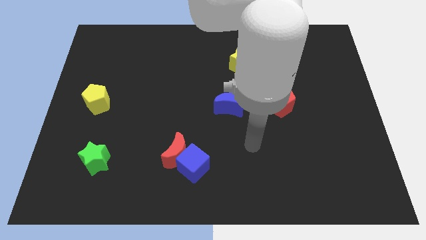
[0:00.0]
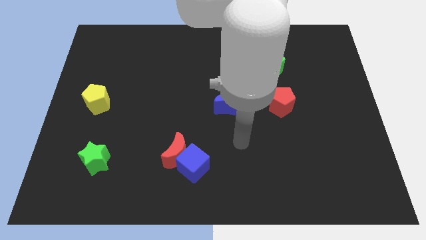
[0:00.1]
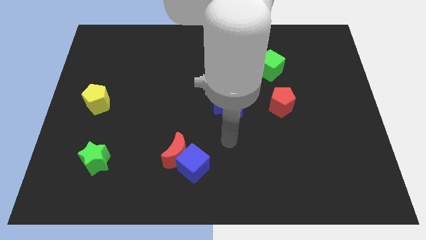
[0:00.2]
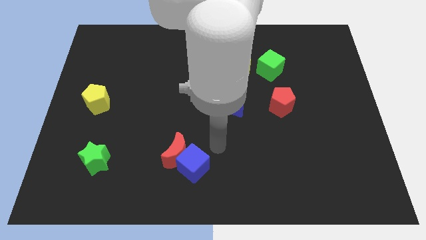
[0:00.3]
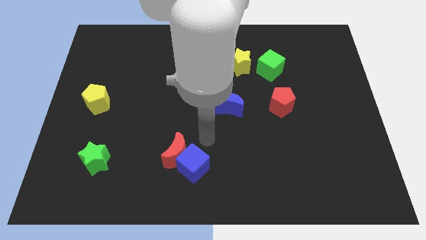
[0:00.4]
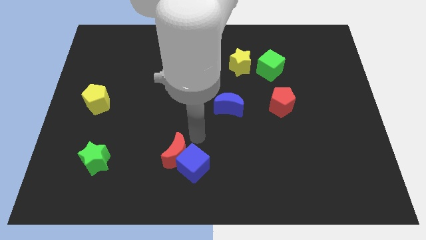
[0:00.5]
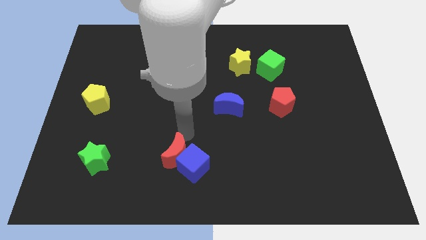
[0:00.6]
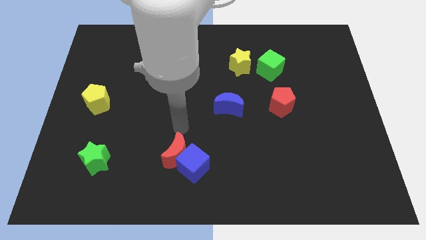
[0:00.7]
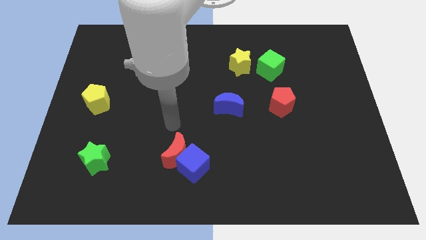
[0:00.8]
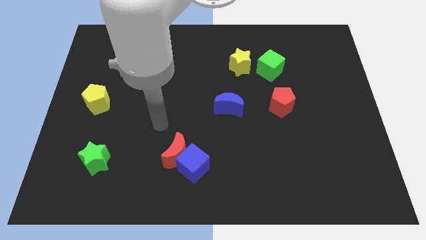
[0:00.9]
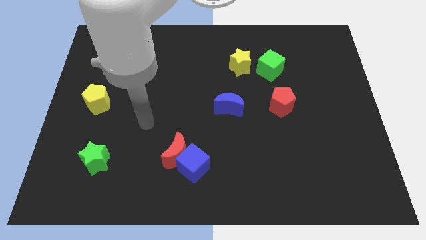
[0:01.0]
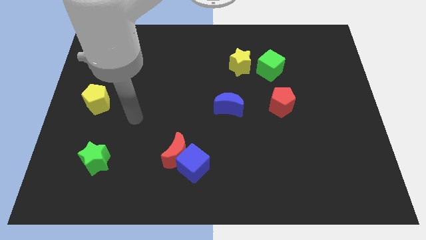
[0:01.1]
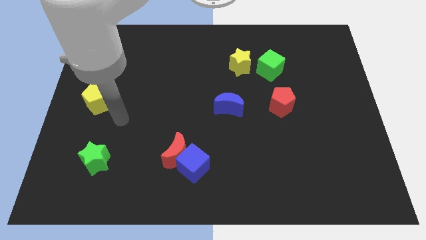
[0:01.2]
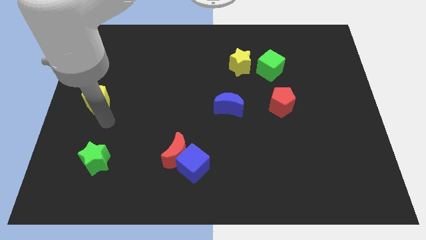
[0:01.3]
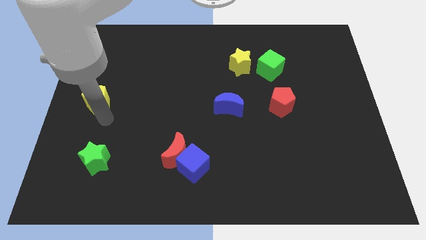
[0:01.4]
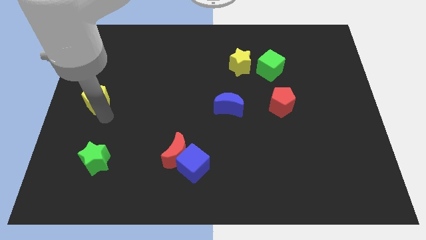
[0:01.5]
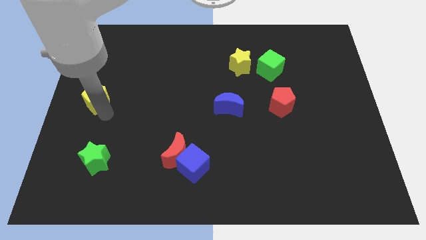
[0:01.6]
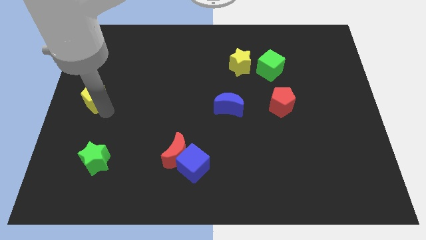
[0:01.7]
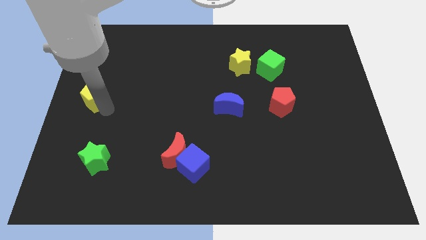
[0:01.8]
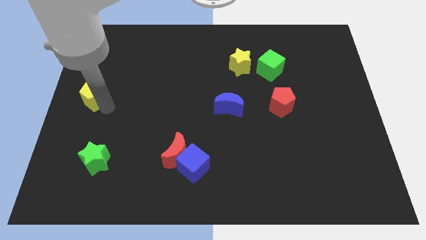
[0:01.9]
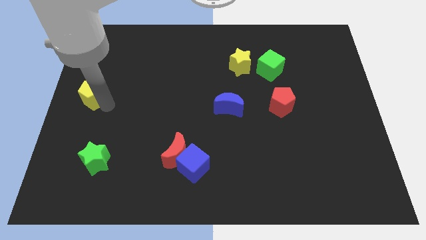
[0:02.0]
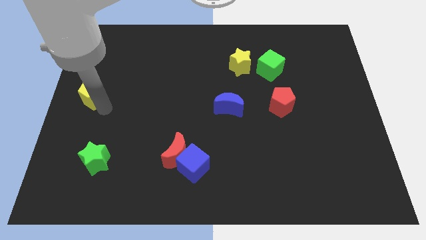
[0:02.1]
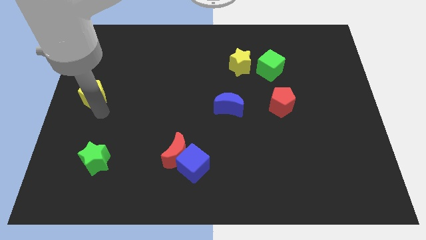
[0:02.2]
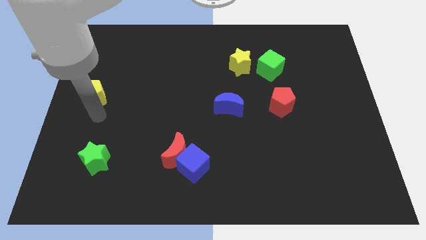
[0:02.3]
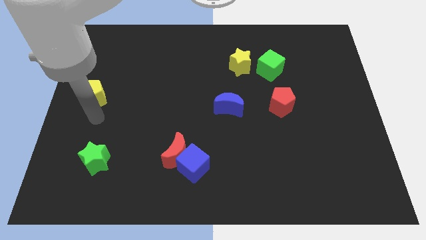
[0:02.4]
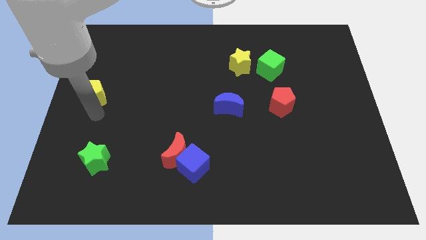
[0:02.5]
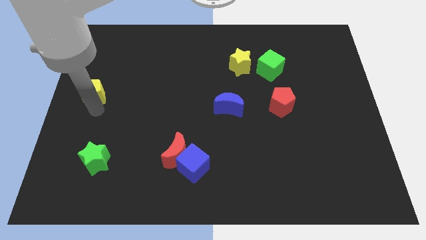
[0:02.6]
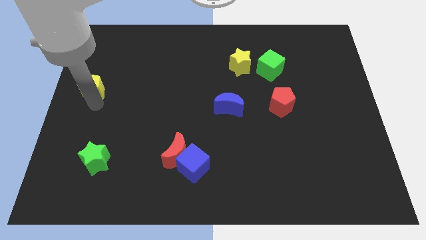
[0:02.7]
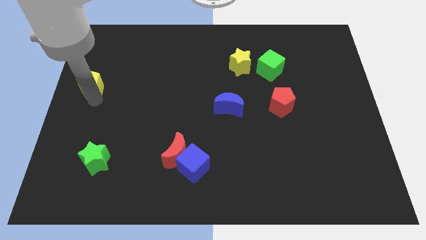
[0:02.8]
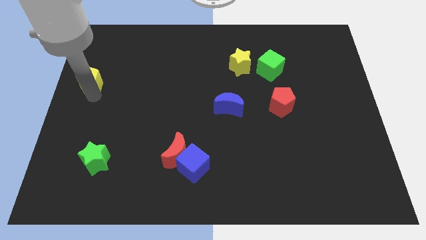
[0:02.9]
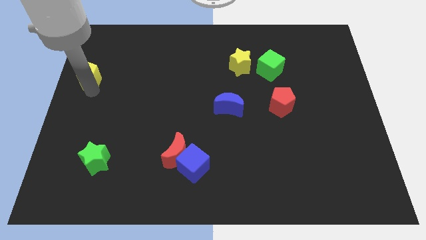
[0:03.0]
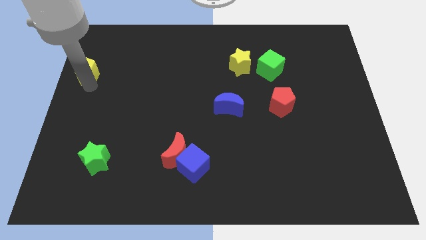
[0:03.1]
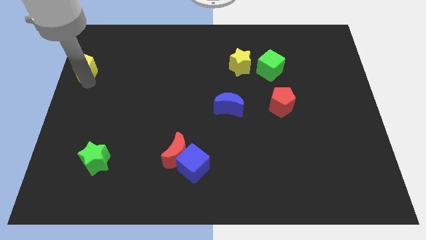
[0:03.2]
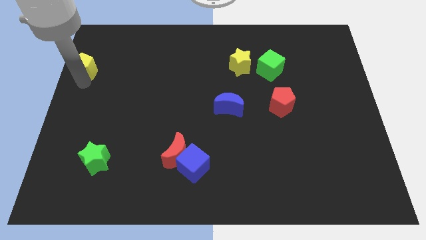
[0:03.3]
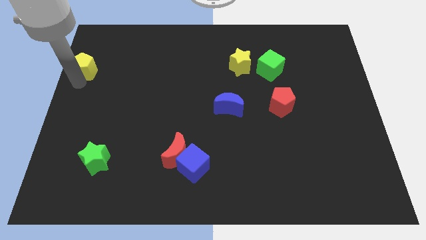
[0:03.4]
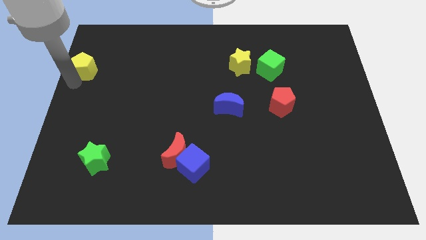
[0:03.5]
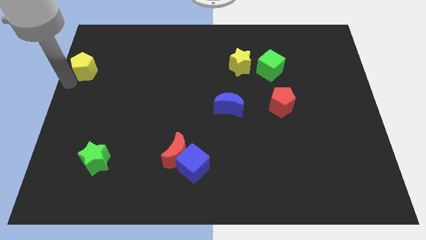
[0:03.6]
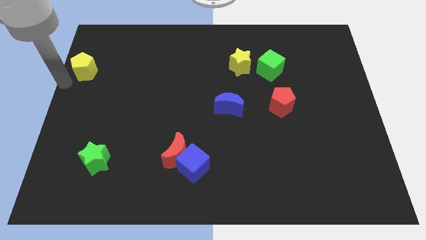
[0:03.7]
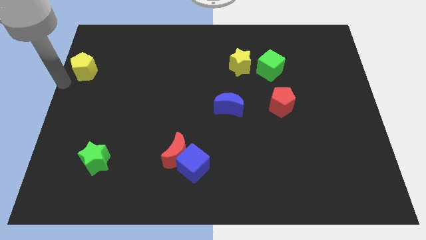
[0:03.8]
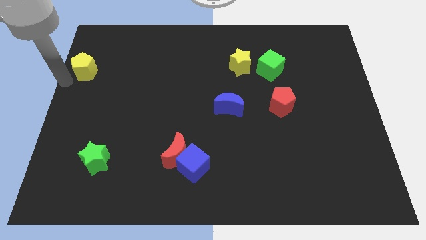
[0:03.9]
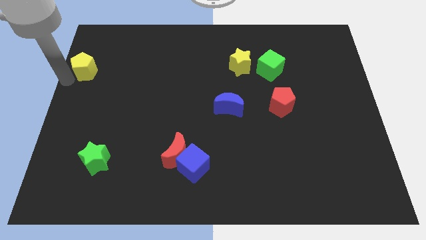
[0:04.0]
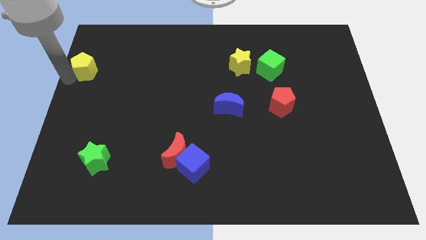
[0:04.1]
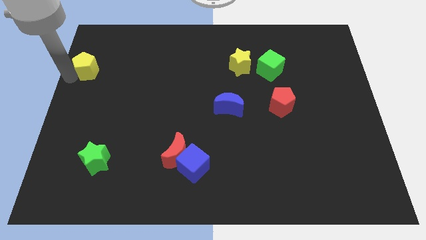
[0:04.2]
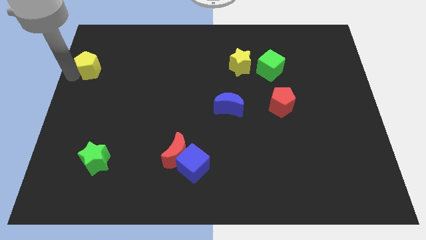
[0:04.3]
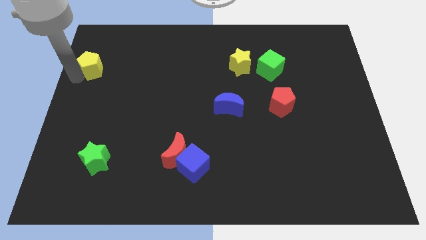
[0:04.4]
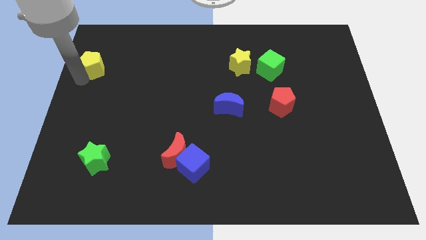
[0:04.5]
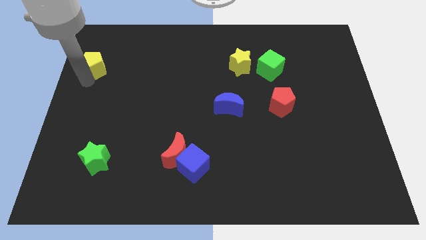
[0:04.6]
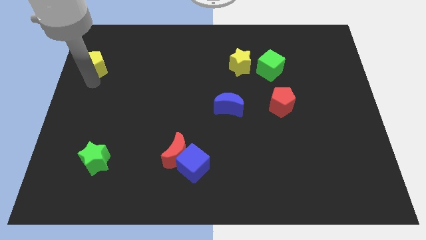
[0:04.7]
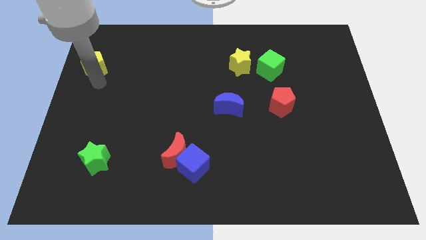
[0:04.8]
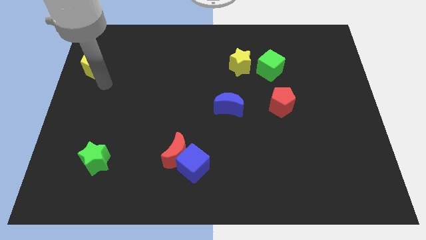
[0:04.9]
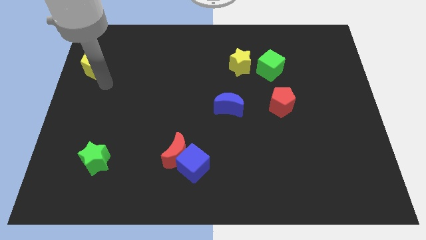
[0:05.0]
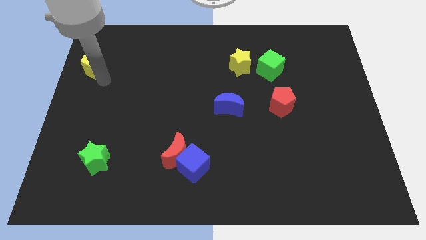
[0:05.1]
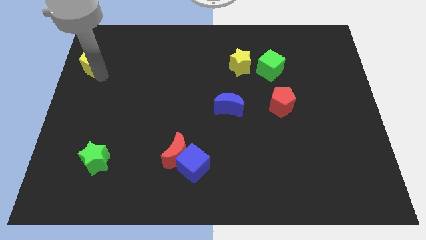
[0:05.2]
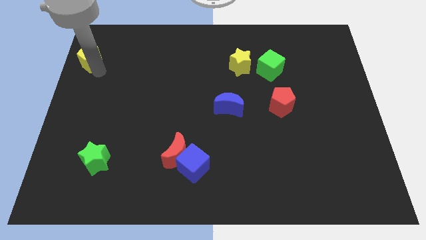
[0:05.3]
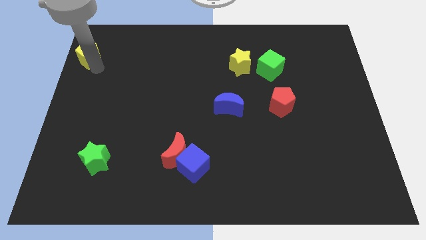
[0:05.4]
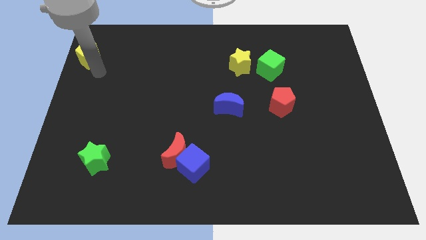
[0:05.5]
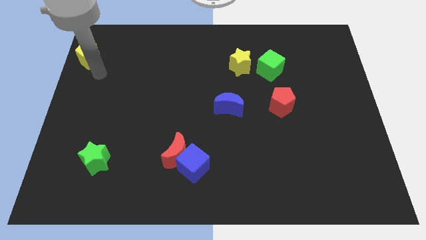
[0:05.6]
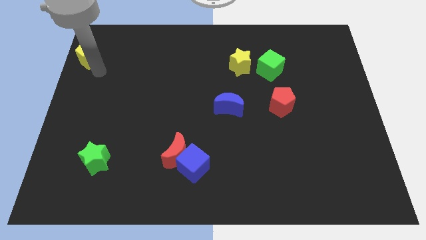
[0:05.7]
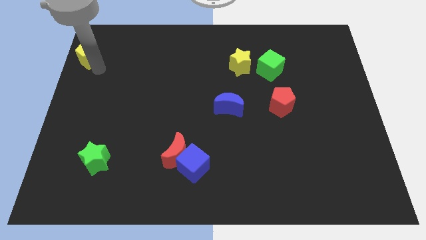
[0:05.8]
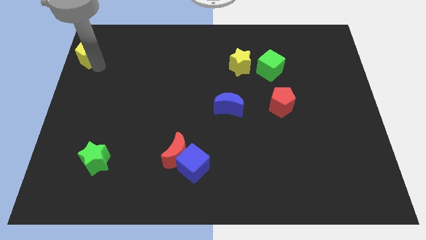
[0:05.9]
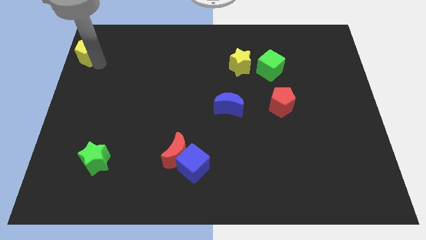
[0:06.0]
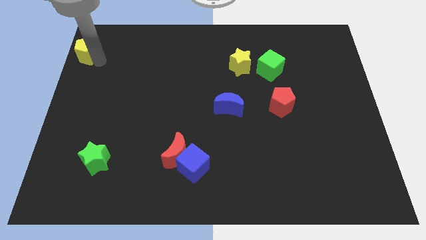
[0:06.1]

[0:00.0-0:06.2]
slide the yellow pentagon to the upper left corner
